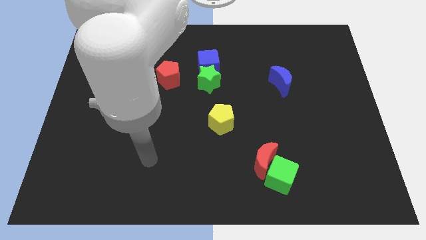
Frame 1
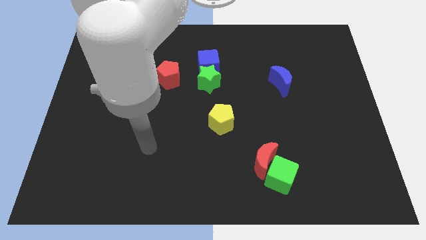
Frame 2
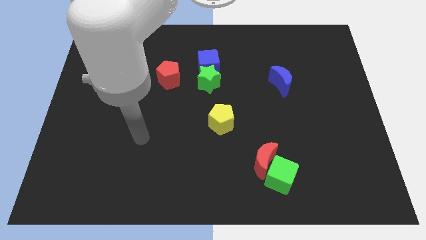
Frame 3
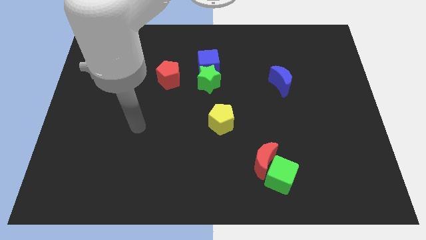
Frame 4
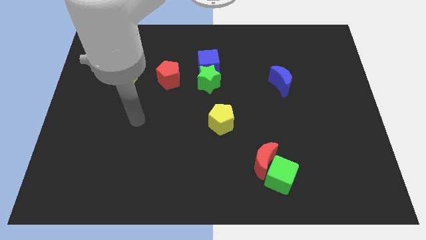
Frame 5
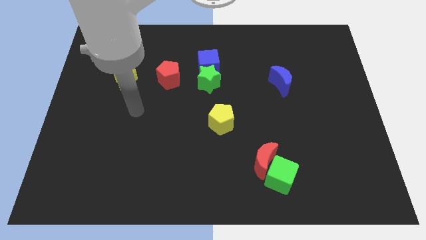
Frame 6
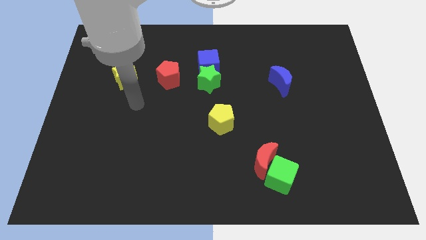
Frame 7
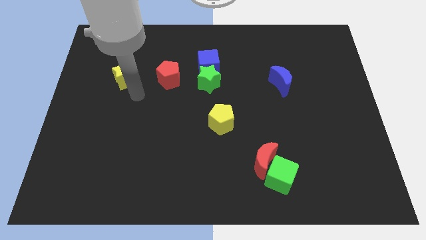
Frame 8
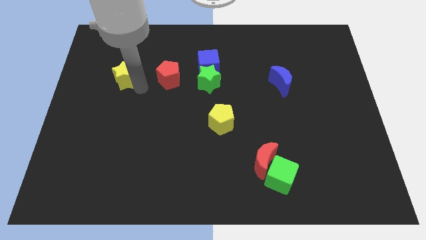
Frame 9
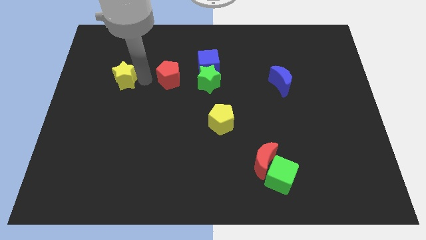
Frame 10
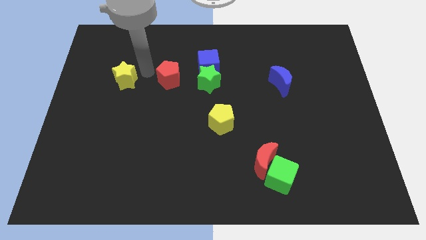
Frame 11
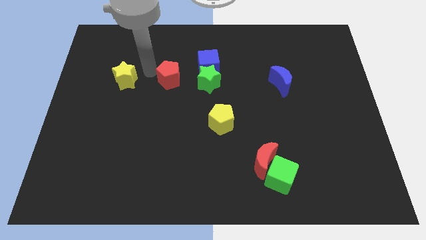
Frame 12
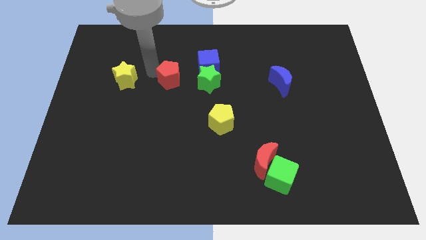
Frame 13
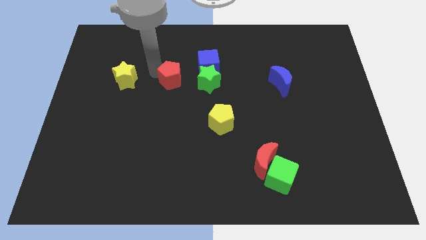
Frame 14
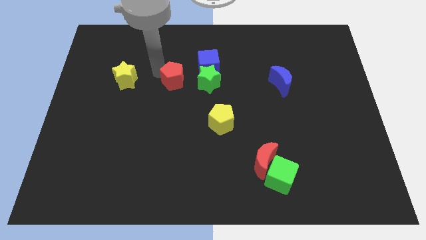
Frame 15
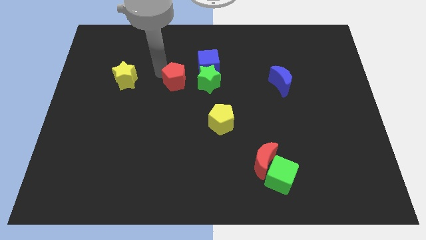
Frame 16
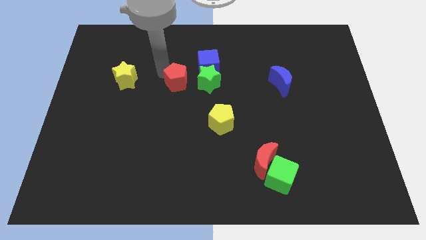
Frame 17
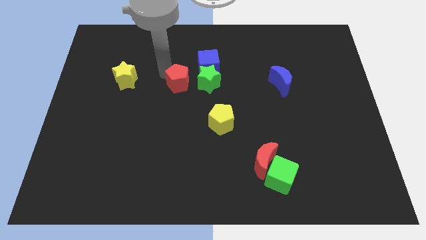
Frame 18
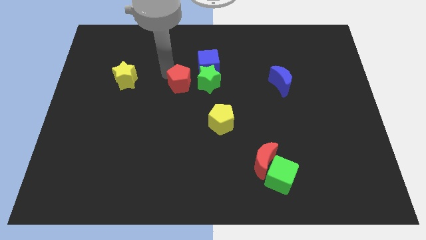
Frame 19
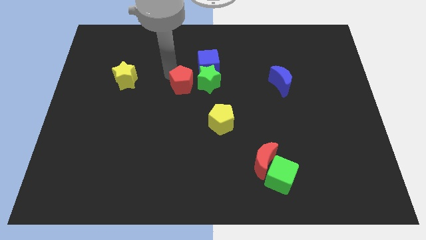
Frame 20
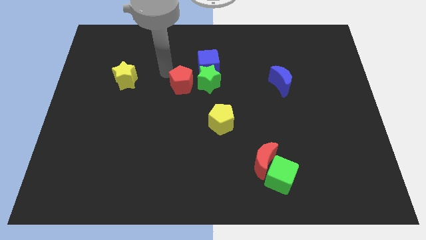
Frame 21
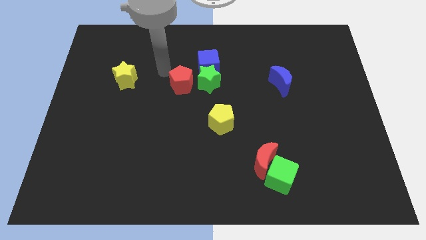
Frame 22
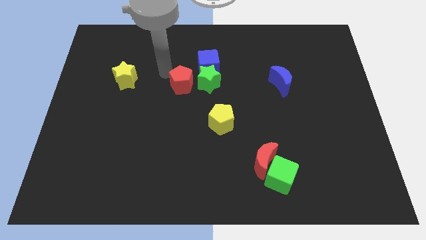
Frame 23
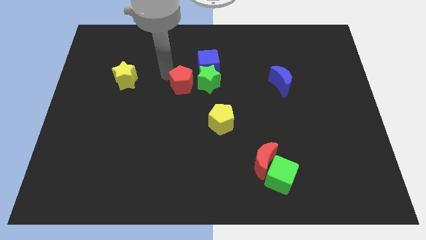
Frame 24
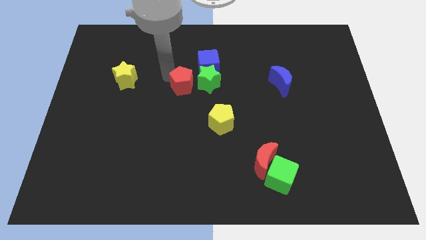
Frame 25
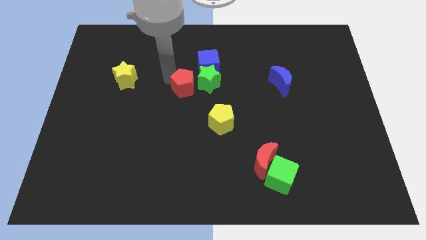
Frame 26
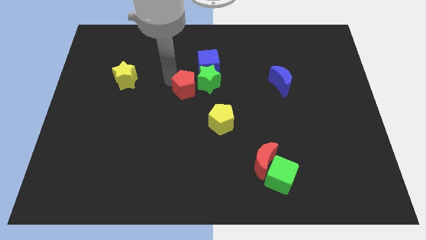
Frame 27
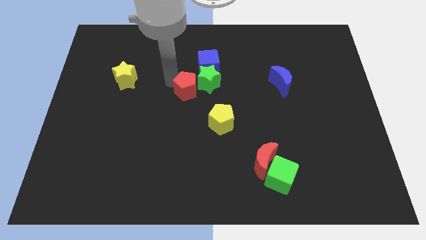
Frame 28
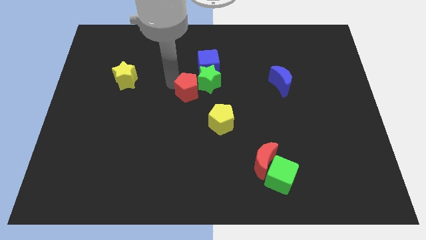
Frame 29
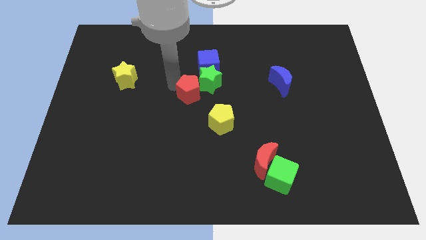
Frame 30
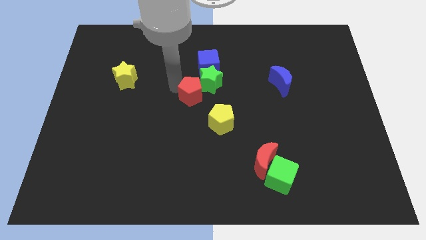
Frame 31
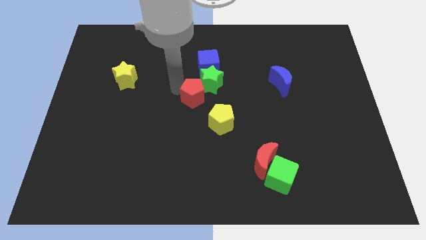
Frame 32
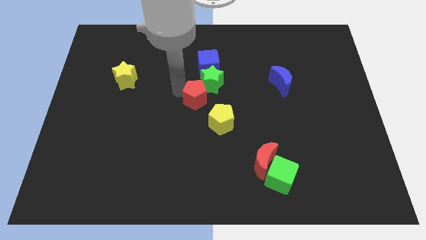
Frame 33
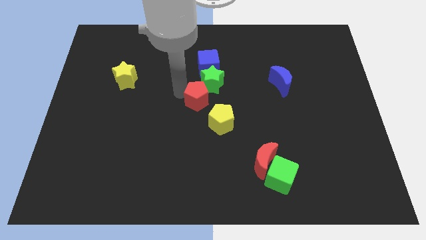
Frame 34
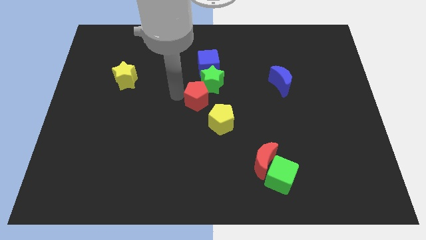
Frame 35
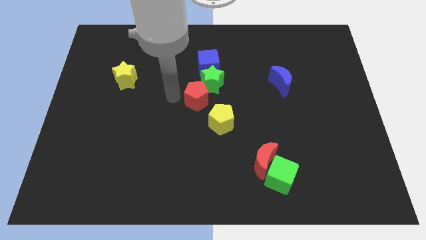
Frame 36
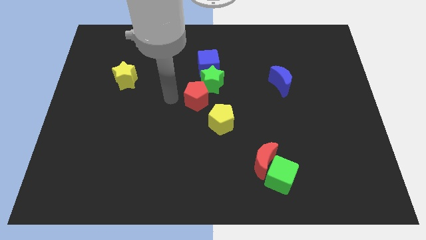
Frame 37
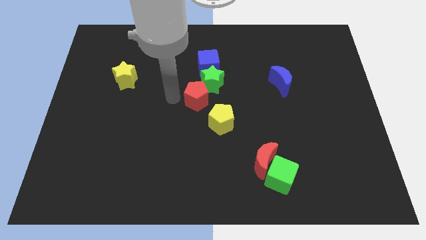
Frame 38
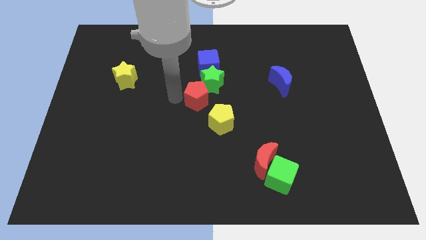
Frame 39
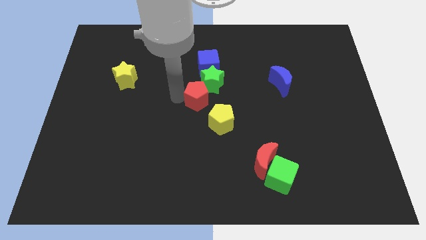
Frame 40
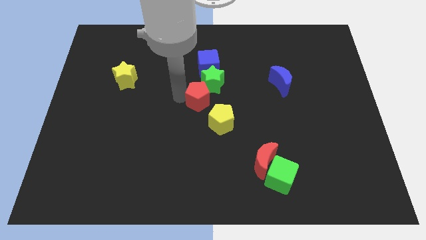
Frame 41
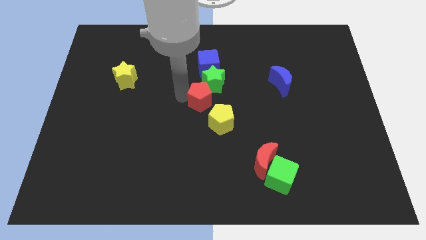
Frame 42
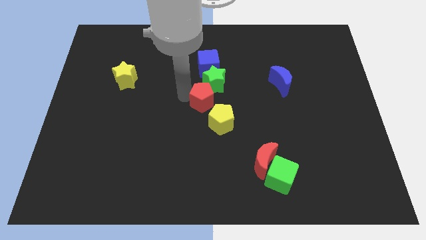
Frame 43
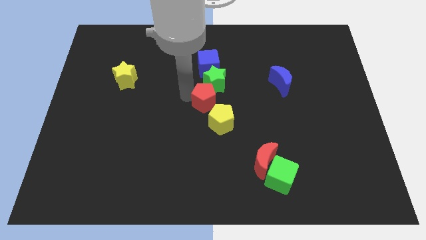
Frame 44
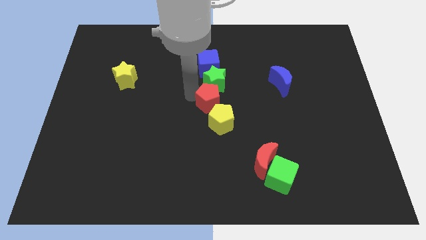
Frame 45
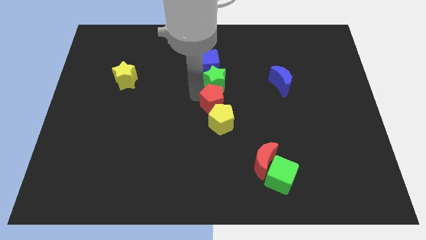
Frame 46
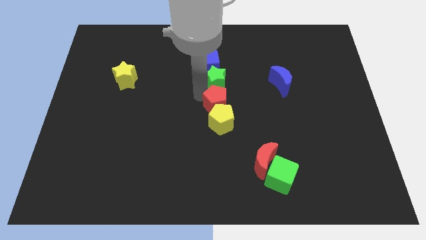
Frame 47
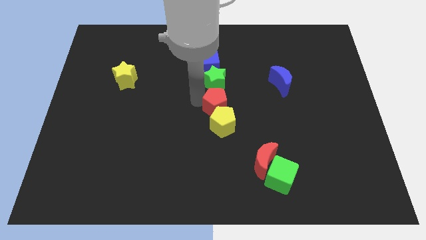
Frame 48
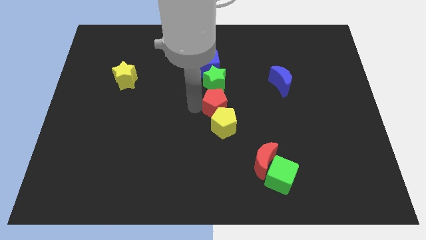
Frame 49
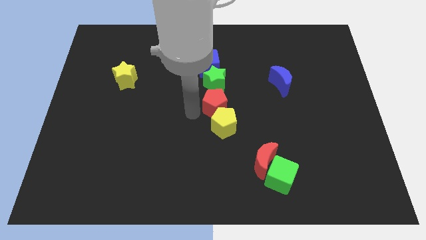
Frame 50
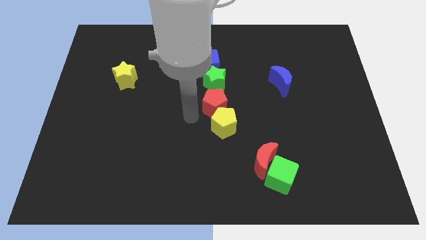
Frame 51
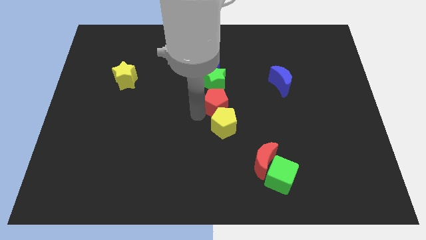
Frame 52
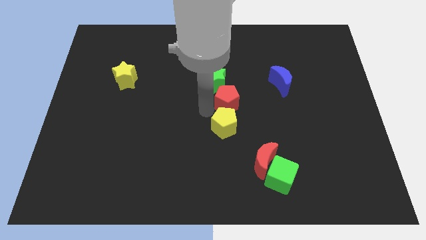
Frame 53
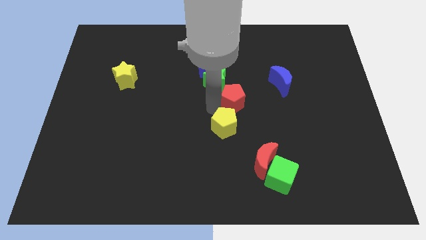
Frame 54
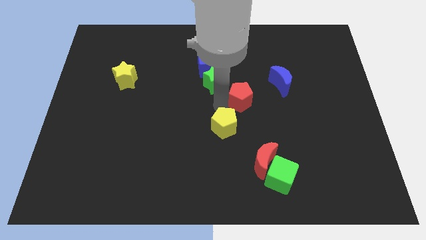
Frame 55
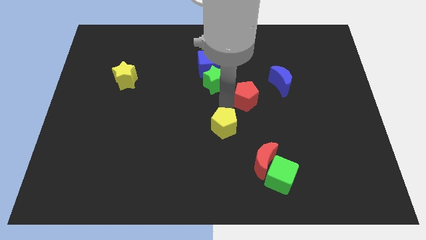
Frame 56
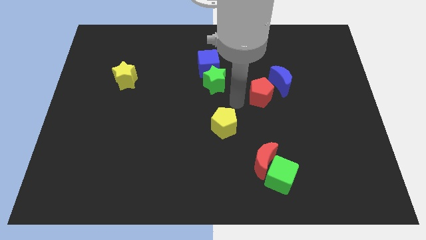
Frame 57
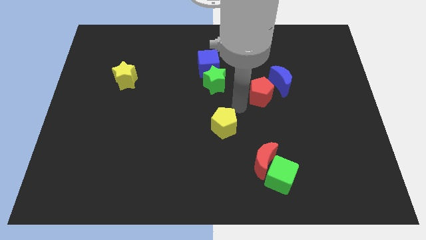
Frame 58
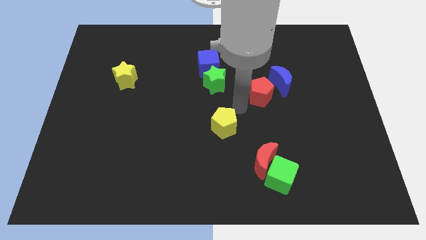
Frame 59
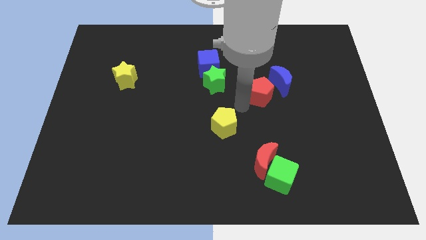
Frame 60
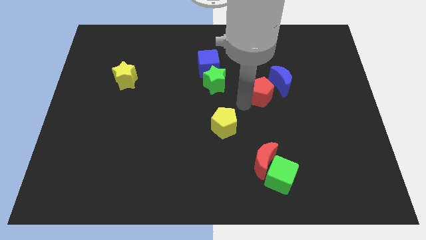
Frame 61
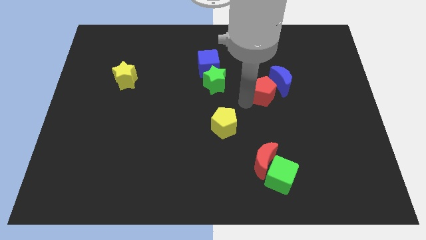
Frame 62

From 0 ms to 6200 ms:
put the red pentagon close to the blue moon

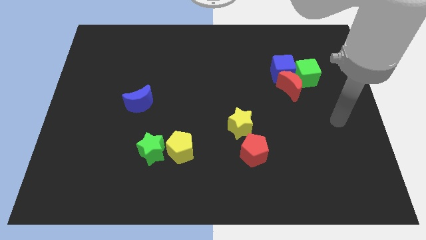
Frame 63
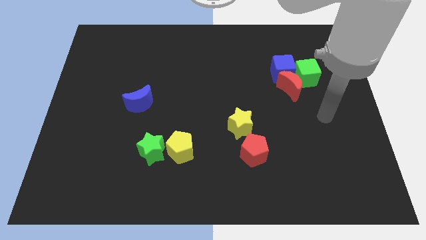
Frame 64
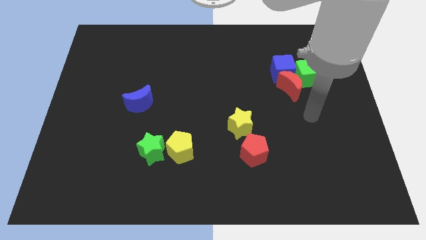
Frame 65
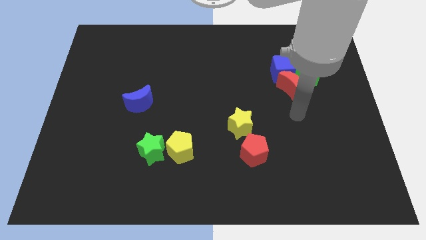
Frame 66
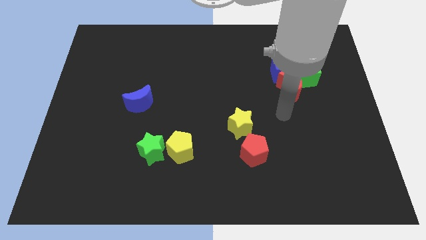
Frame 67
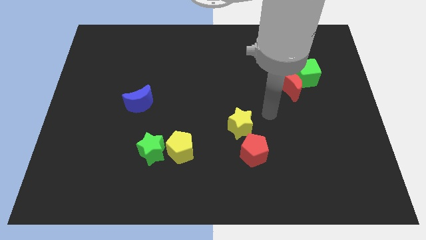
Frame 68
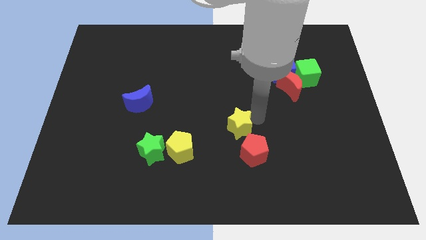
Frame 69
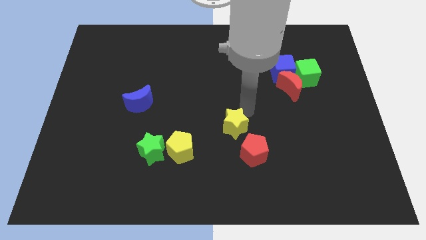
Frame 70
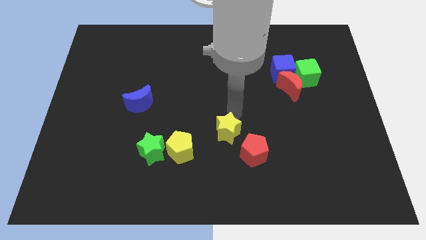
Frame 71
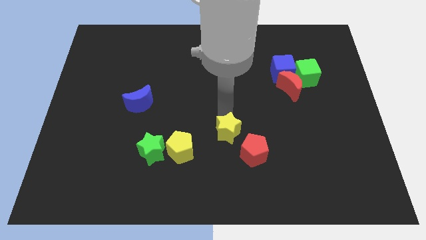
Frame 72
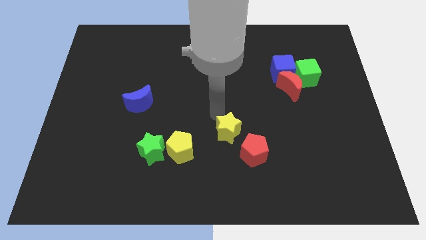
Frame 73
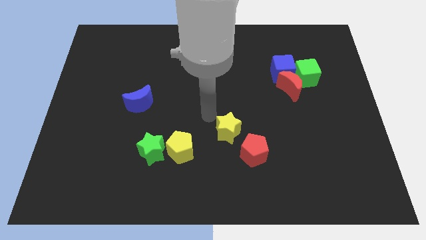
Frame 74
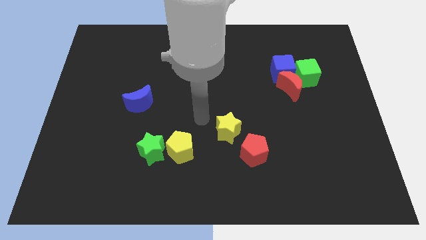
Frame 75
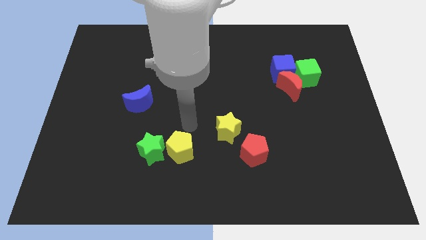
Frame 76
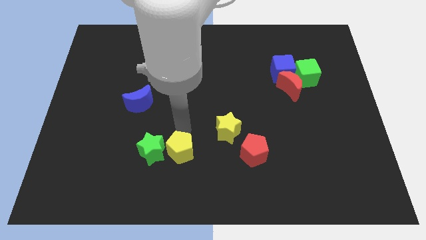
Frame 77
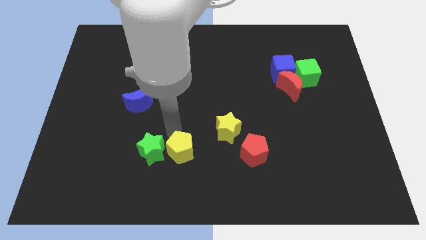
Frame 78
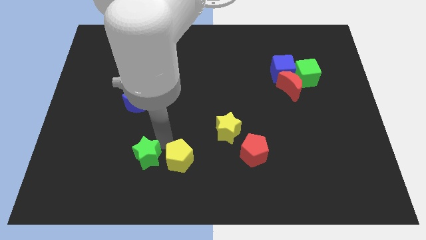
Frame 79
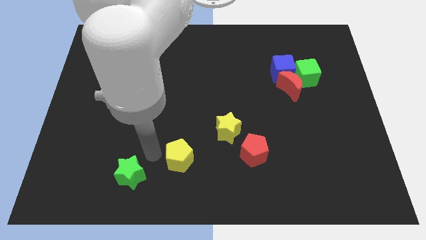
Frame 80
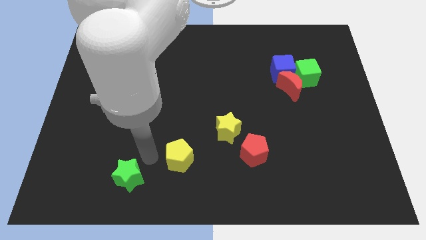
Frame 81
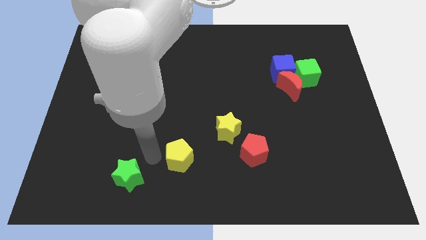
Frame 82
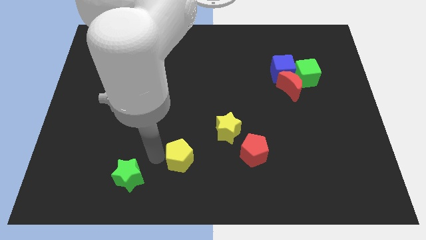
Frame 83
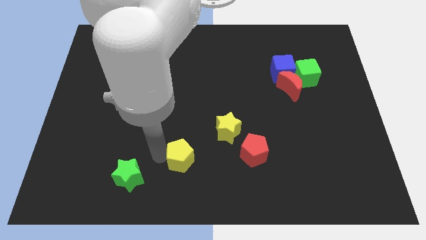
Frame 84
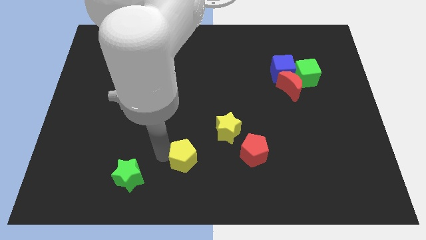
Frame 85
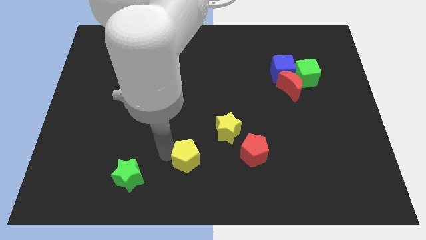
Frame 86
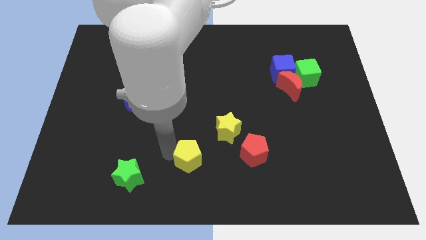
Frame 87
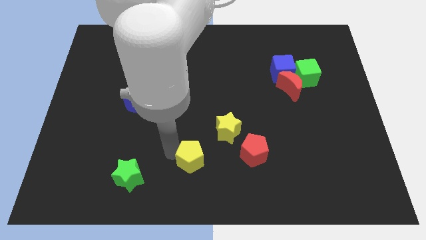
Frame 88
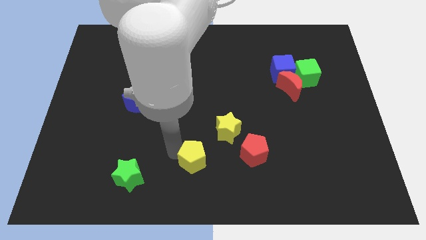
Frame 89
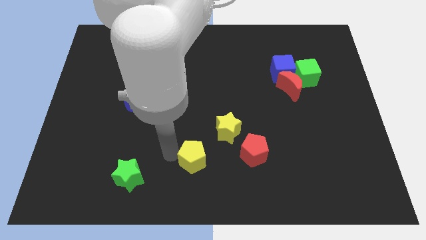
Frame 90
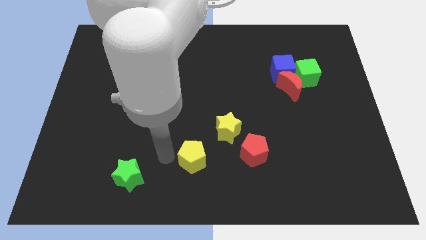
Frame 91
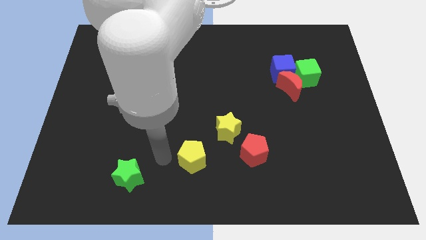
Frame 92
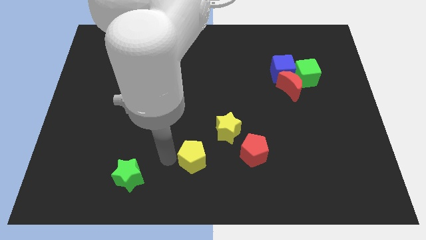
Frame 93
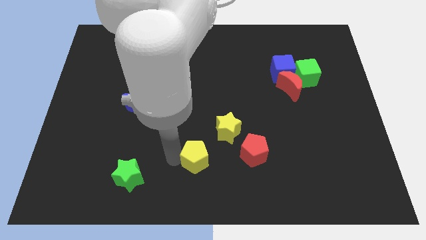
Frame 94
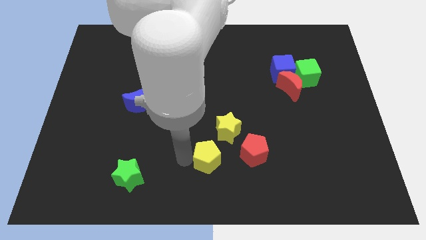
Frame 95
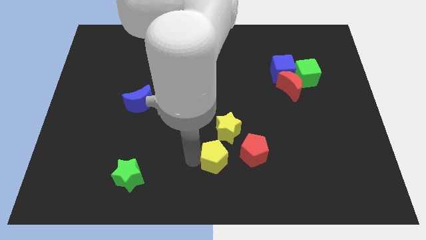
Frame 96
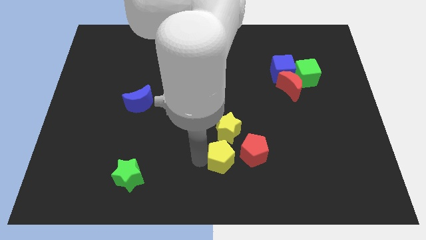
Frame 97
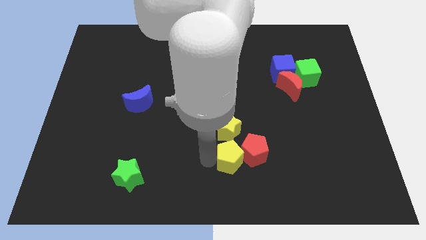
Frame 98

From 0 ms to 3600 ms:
put the yellow pentagon close to the red pentagon
